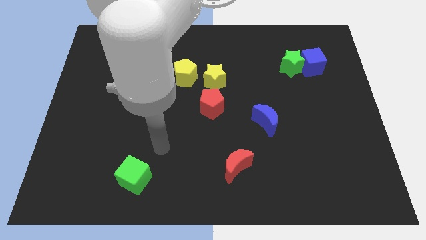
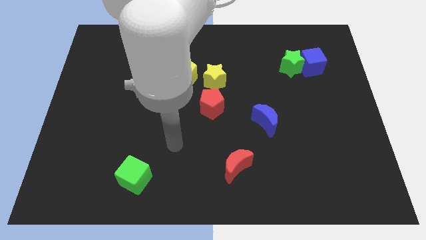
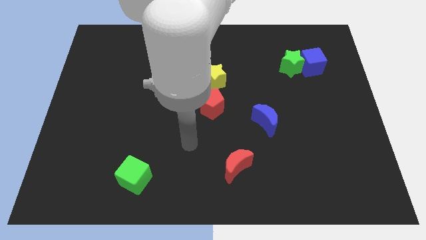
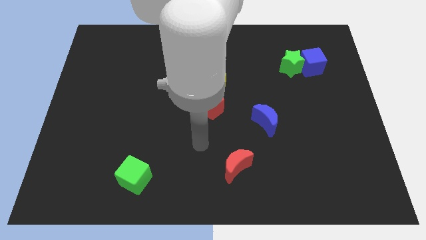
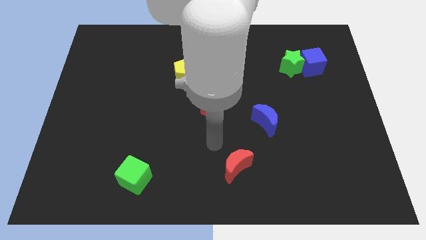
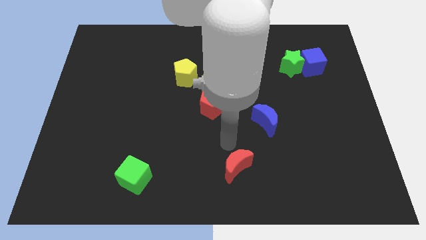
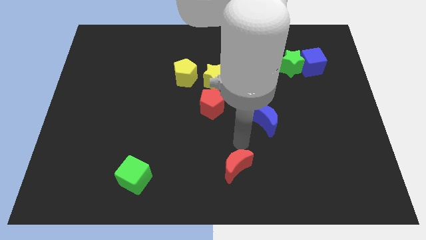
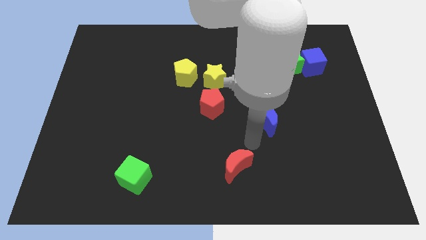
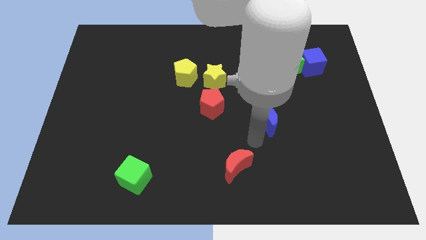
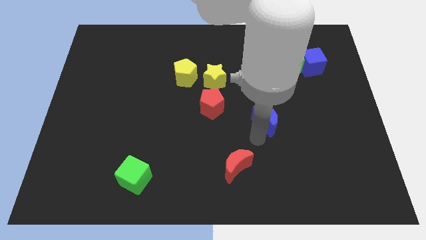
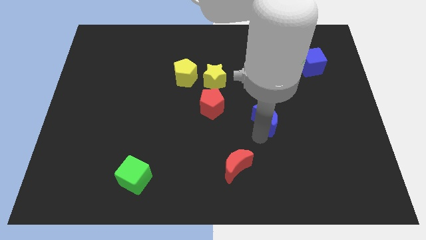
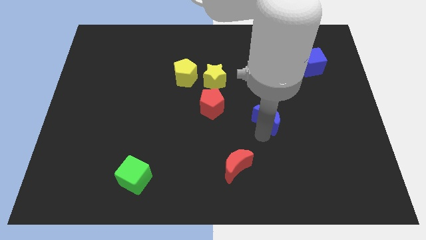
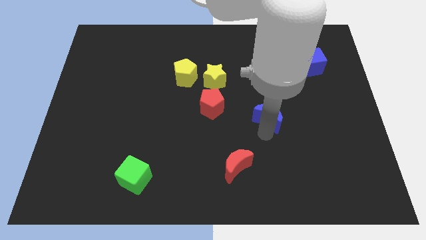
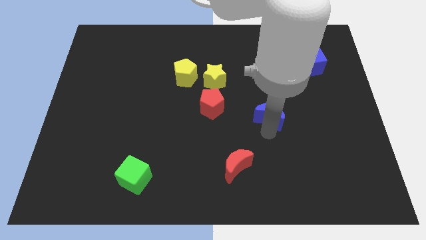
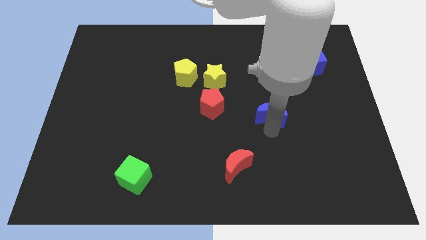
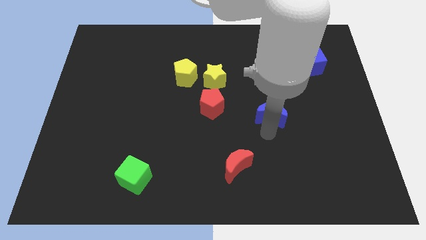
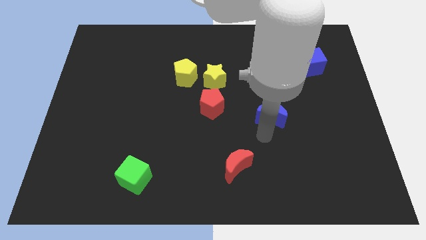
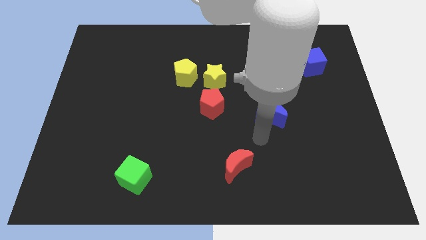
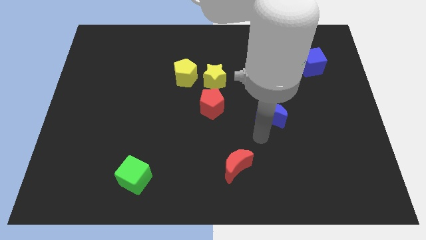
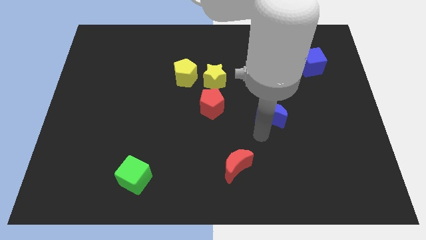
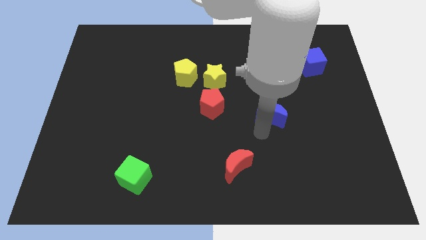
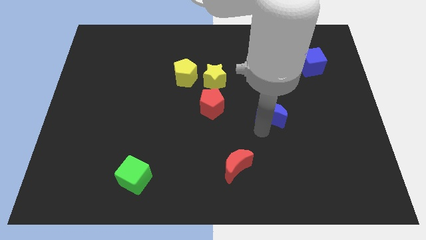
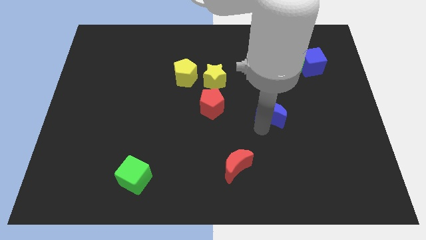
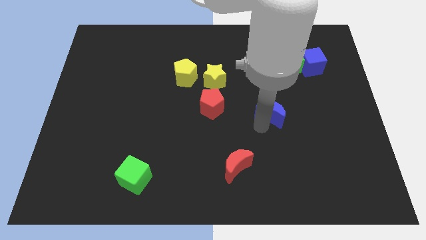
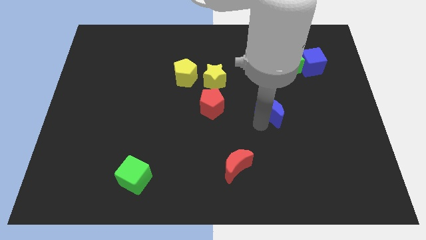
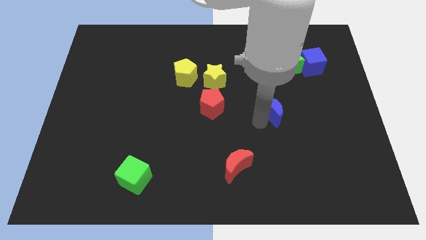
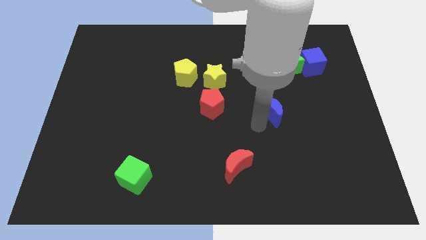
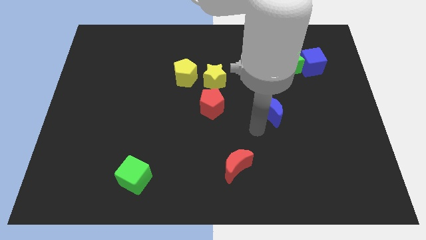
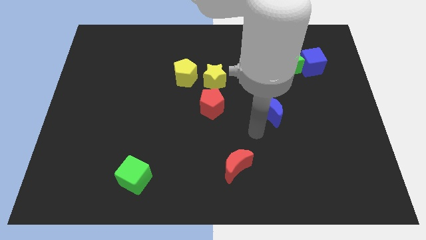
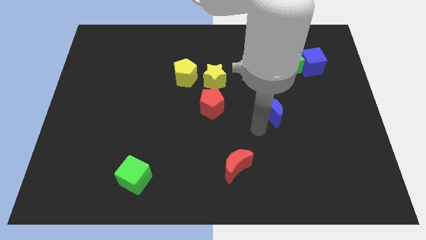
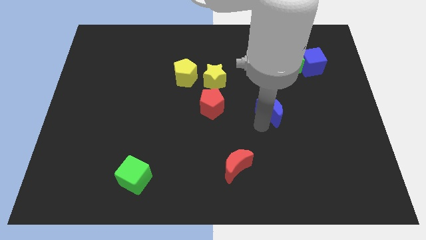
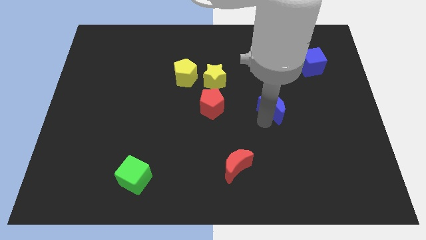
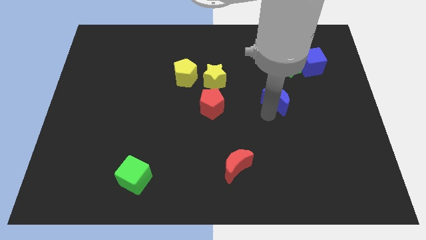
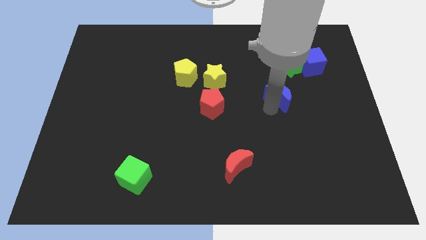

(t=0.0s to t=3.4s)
push the blue moon somewhat diagonally up and right

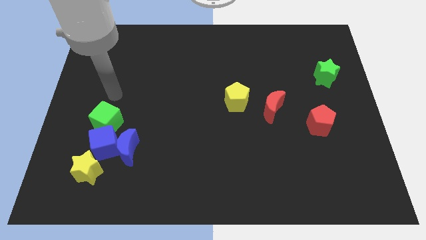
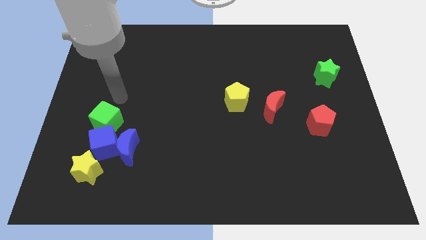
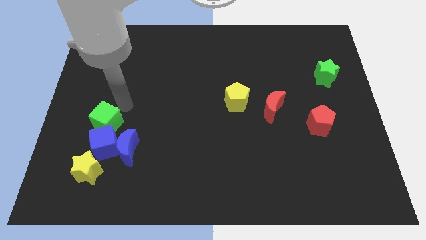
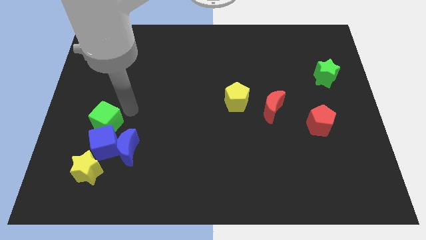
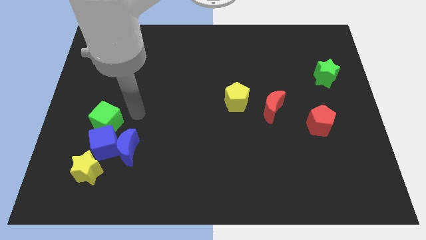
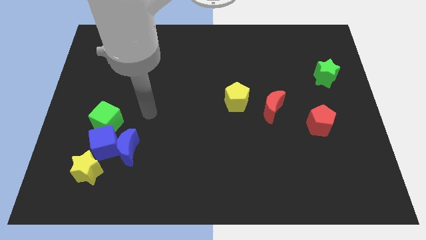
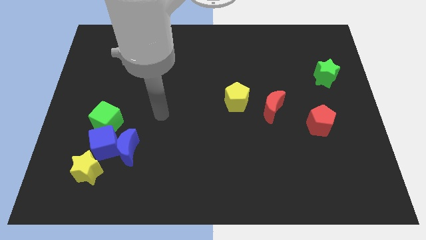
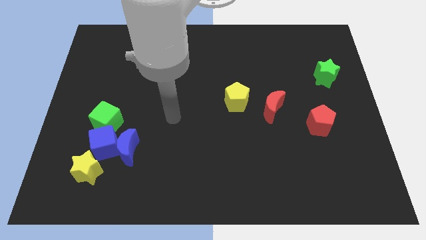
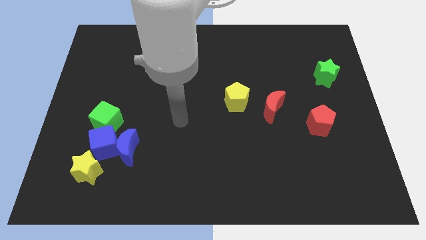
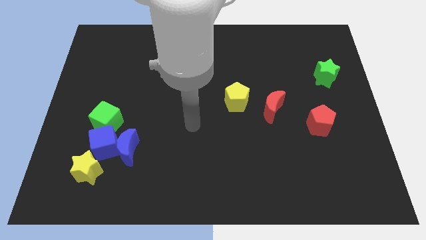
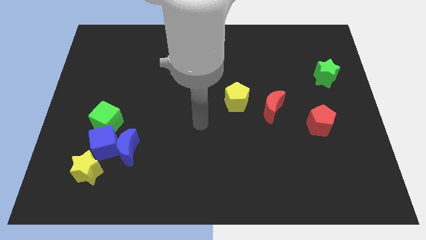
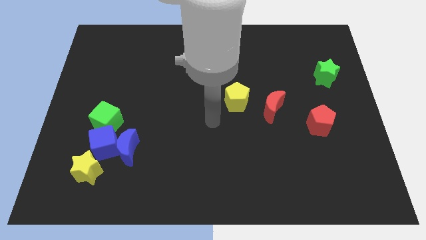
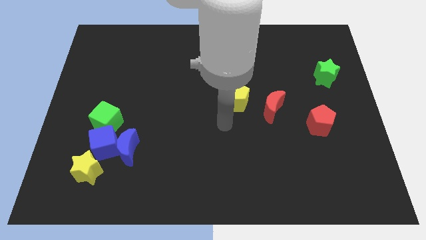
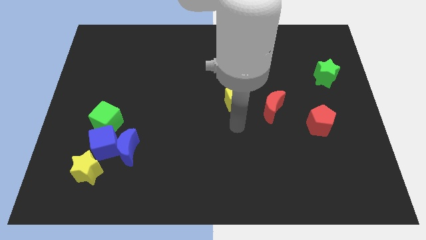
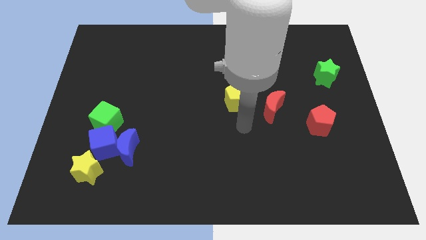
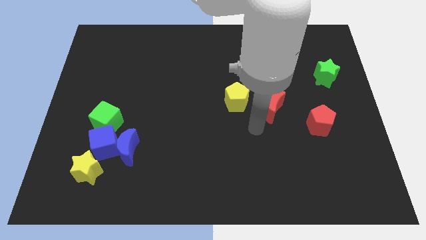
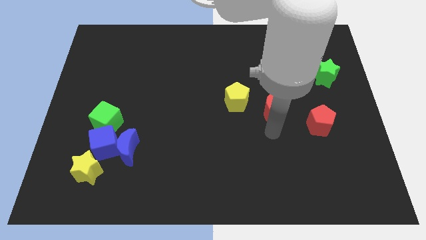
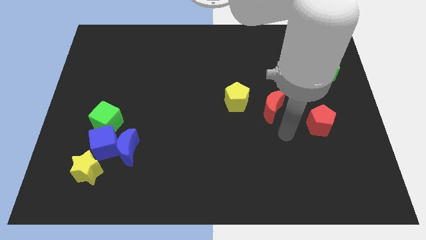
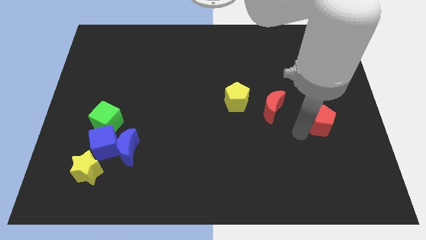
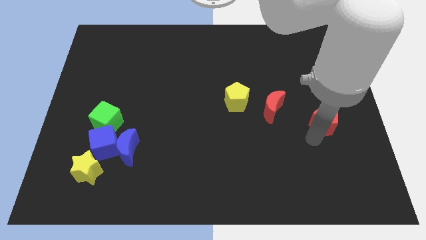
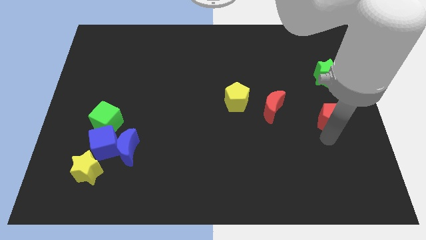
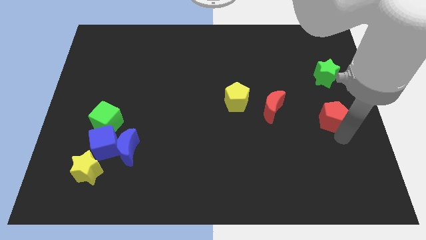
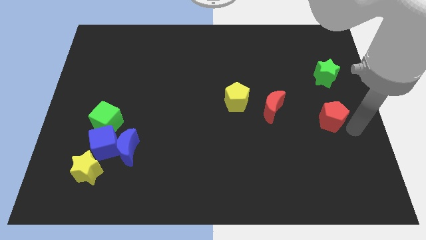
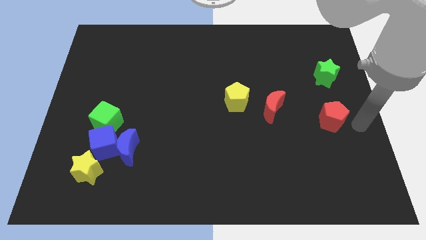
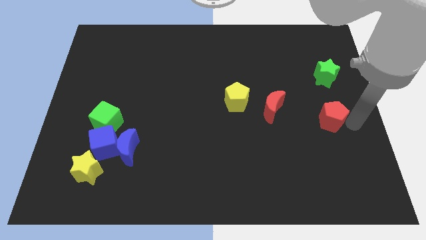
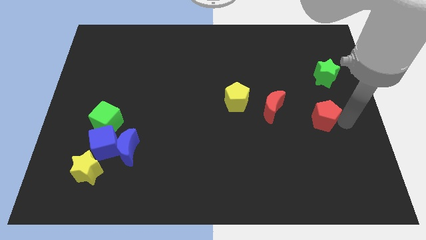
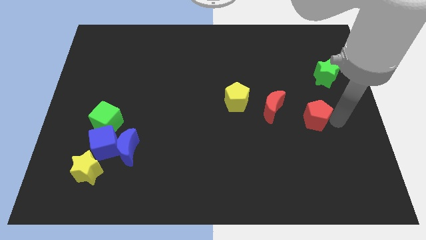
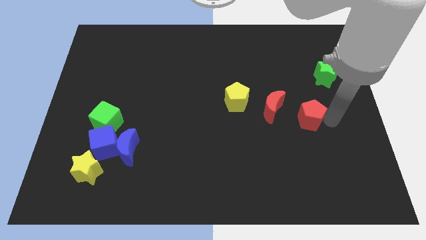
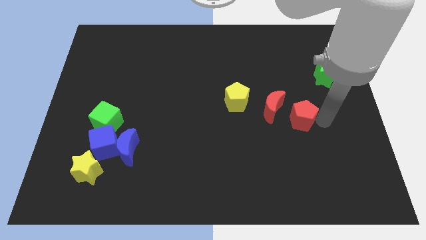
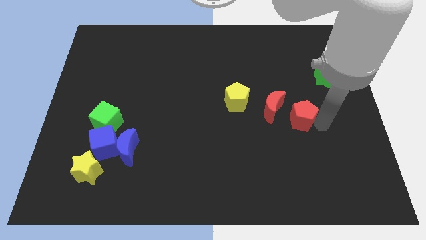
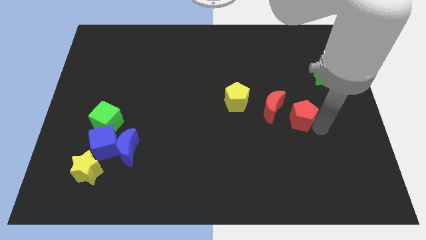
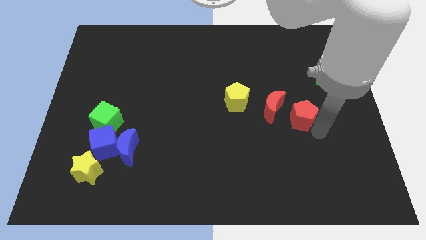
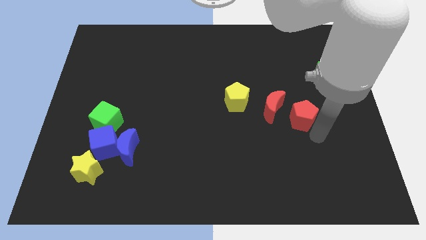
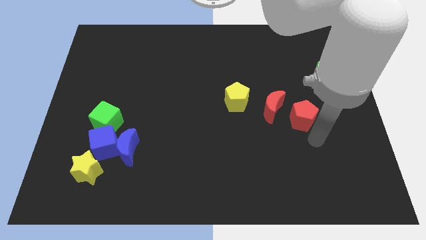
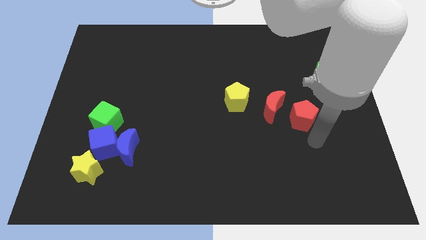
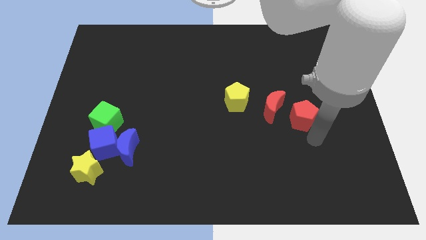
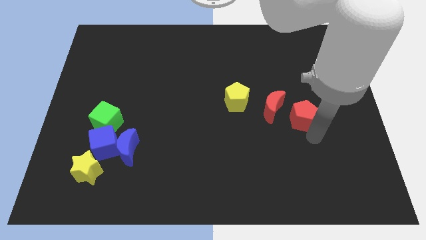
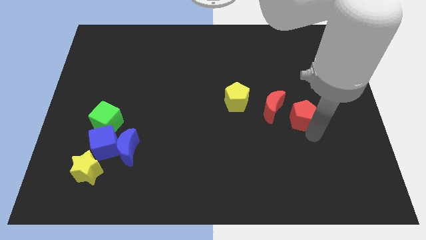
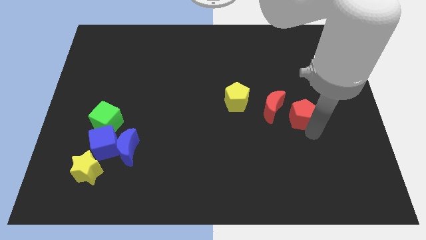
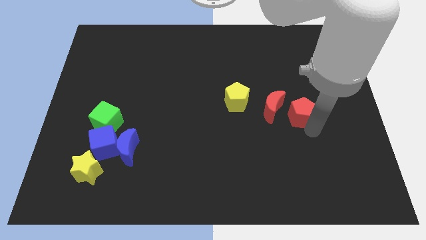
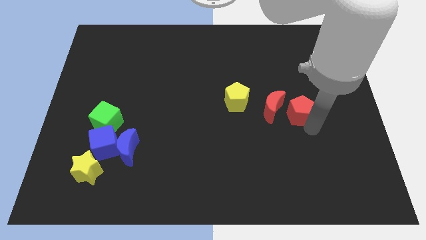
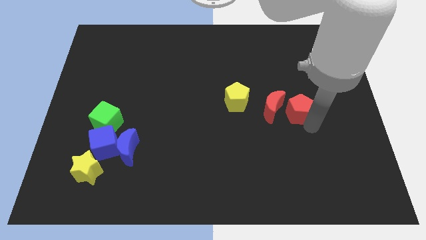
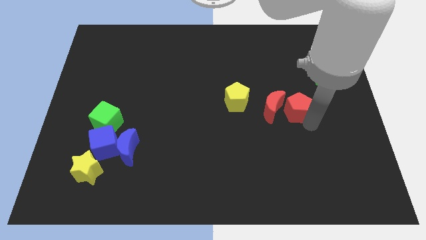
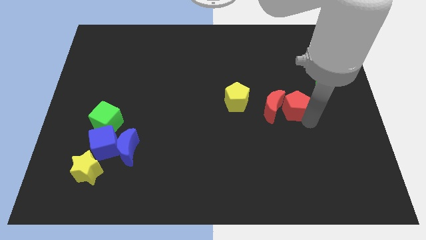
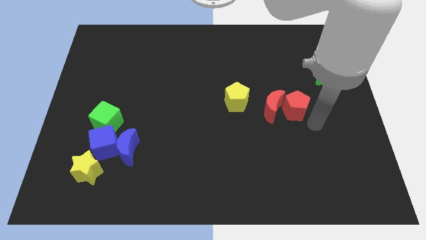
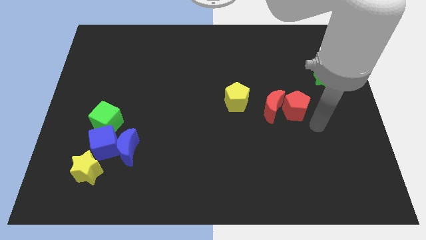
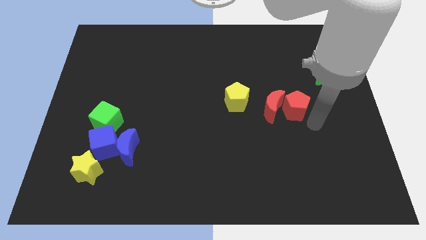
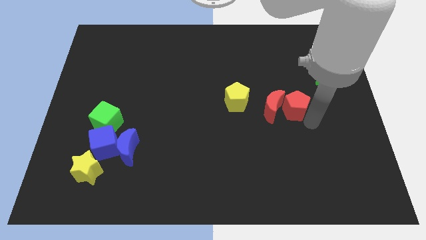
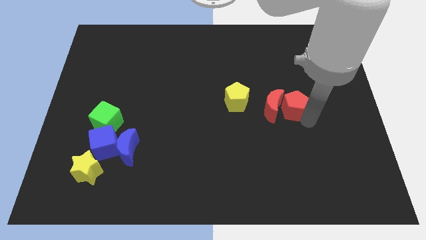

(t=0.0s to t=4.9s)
push the red pentagon up and left diagonally somewhat
